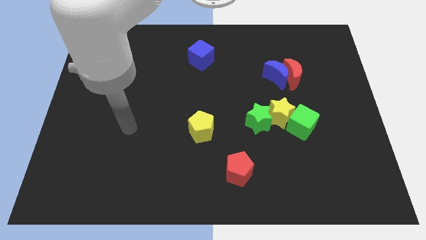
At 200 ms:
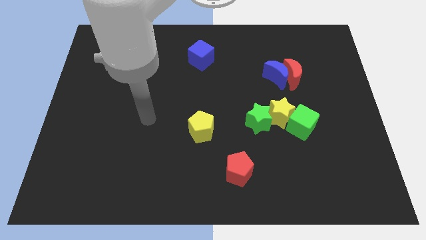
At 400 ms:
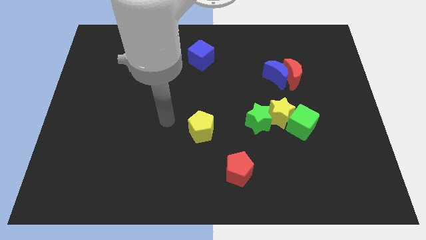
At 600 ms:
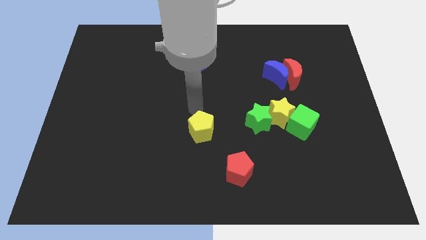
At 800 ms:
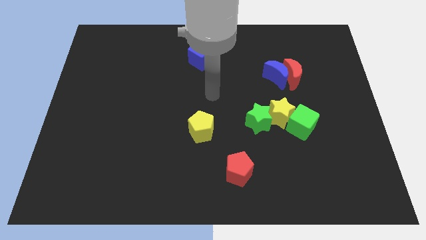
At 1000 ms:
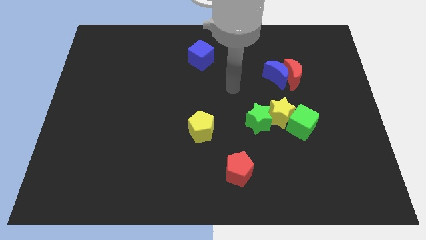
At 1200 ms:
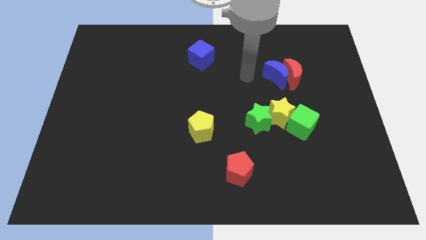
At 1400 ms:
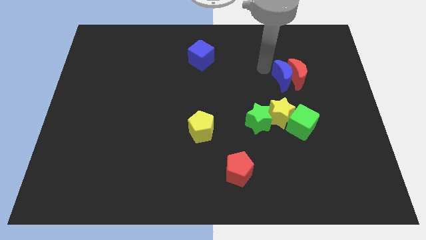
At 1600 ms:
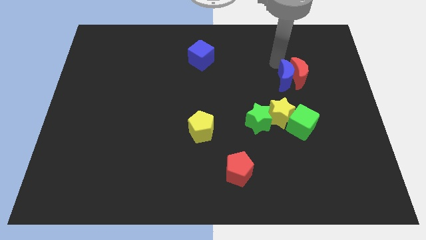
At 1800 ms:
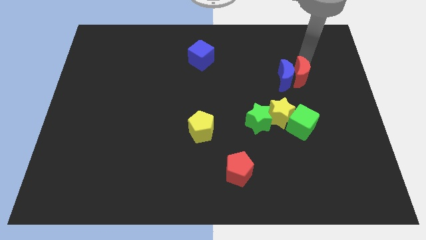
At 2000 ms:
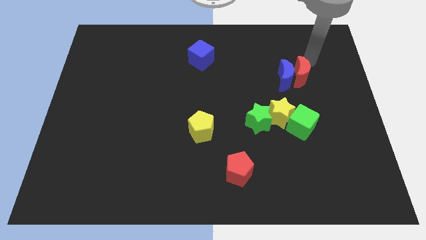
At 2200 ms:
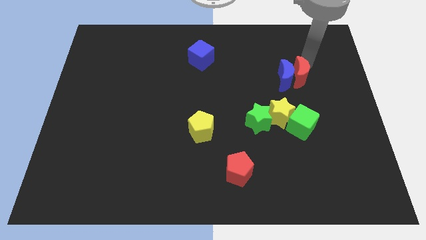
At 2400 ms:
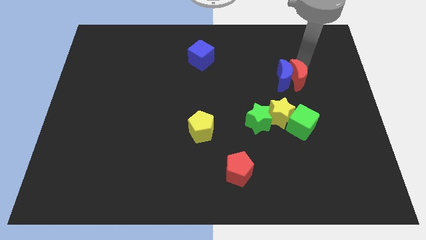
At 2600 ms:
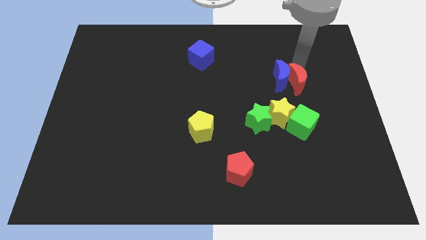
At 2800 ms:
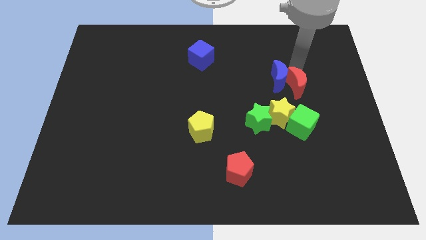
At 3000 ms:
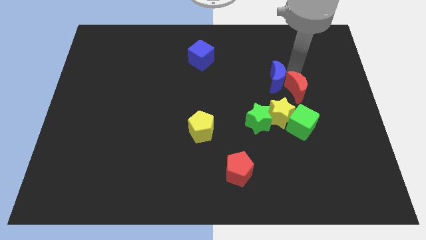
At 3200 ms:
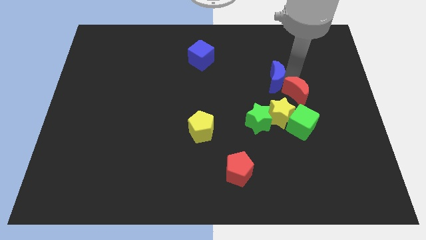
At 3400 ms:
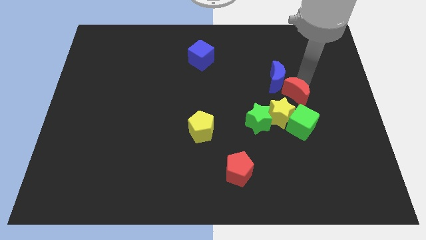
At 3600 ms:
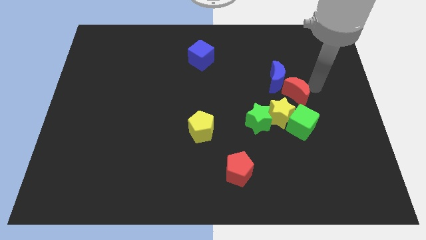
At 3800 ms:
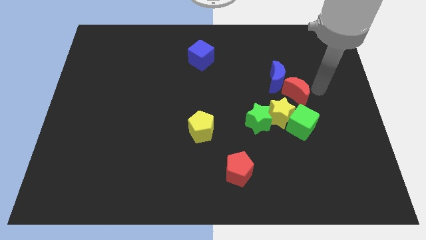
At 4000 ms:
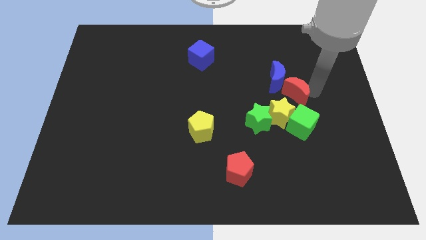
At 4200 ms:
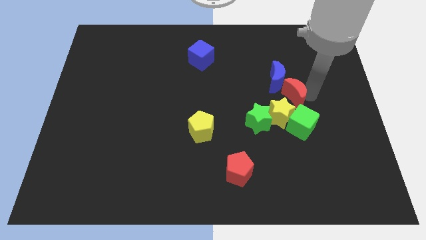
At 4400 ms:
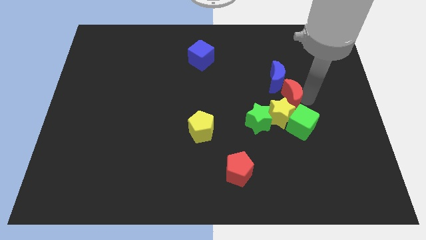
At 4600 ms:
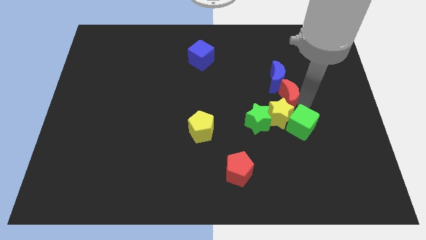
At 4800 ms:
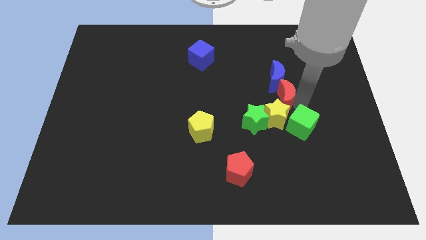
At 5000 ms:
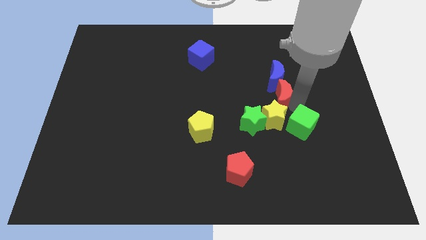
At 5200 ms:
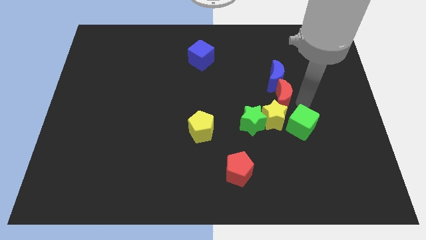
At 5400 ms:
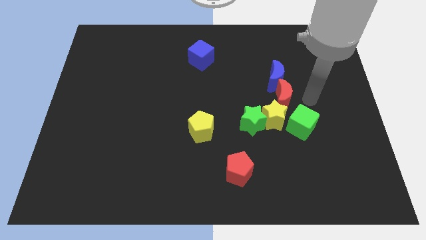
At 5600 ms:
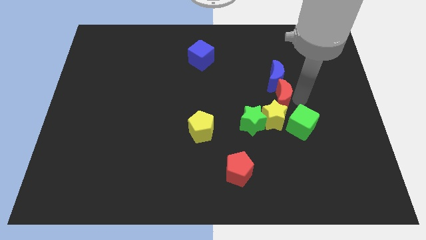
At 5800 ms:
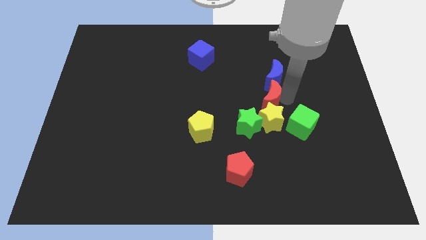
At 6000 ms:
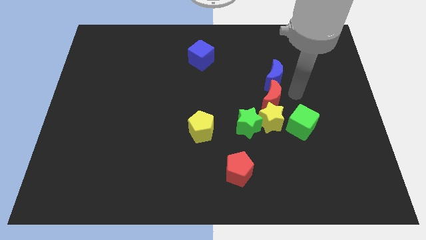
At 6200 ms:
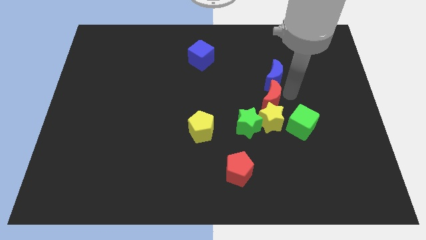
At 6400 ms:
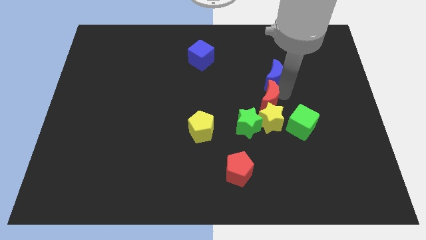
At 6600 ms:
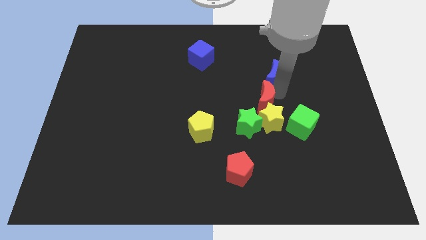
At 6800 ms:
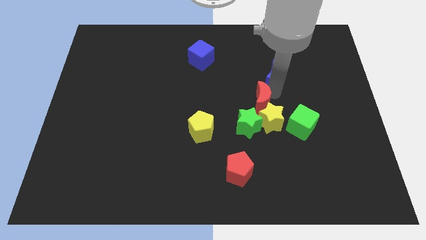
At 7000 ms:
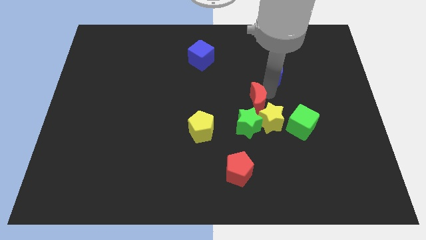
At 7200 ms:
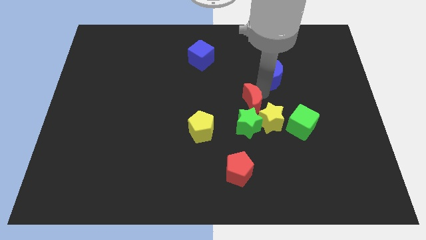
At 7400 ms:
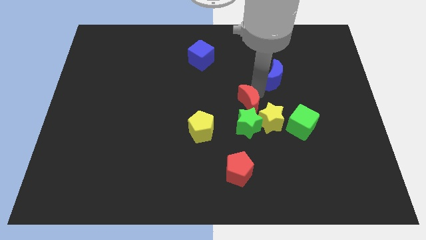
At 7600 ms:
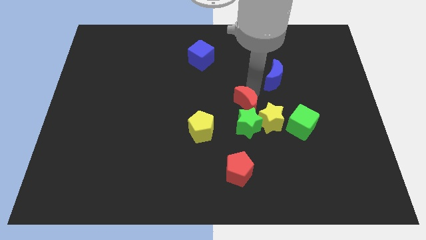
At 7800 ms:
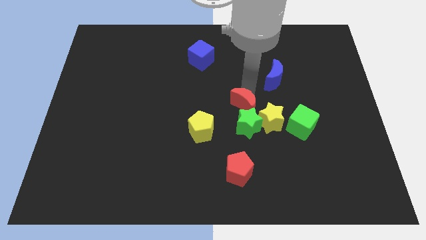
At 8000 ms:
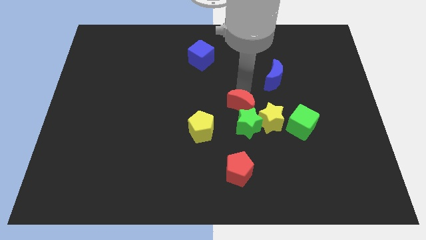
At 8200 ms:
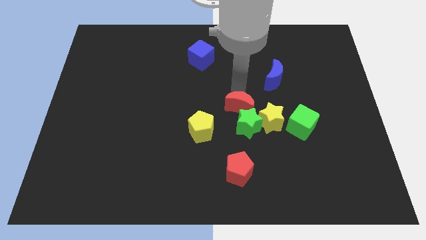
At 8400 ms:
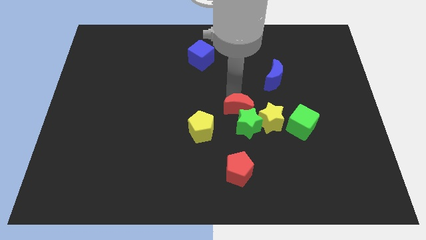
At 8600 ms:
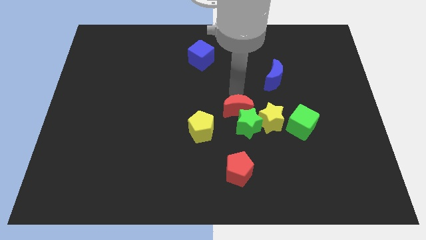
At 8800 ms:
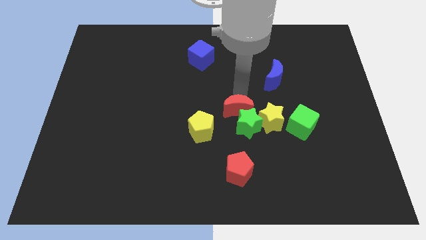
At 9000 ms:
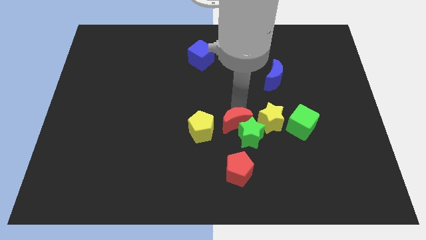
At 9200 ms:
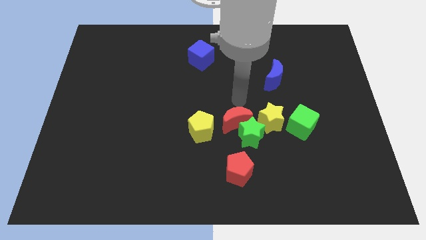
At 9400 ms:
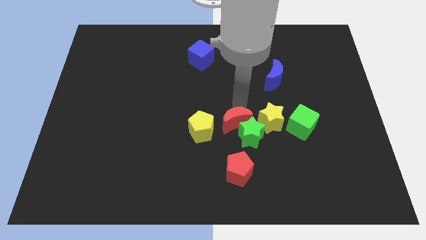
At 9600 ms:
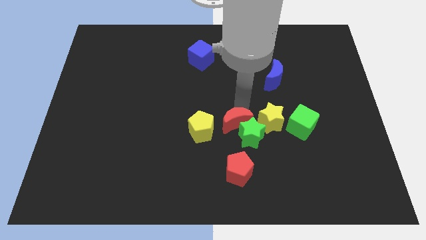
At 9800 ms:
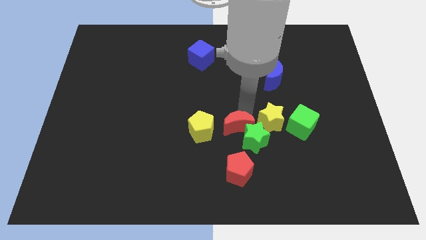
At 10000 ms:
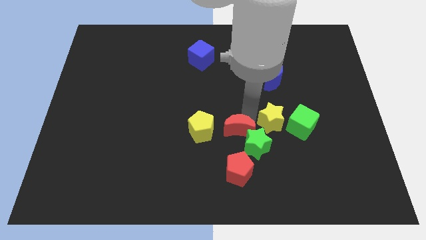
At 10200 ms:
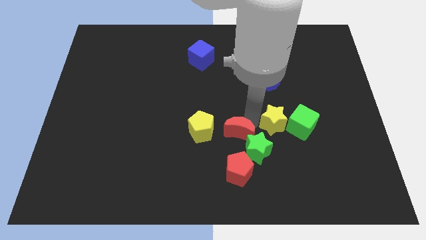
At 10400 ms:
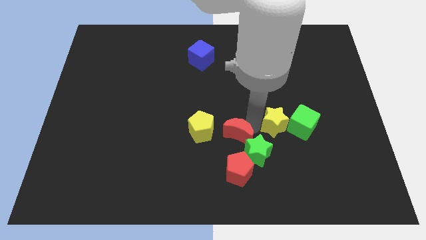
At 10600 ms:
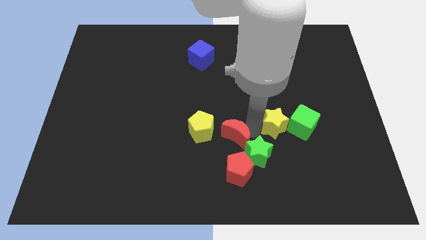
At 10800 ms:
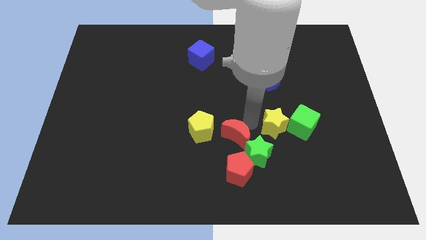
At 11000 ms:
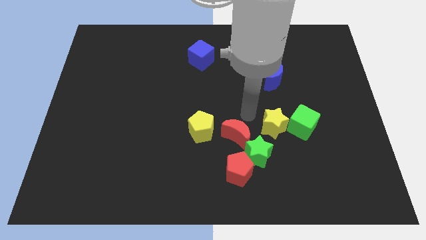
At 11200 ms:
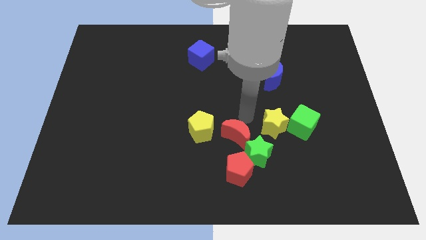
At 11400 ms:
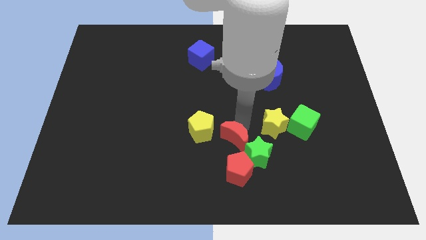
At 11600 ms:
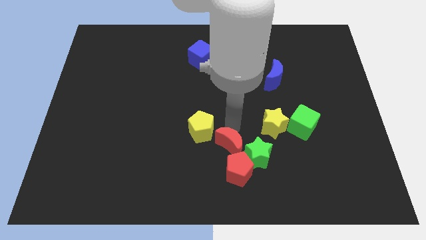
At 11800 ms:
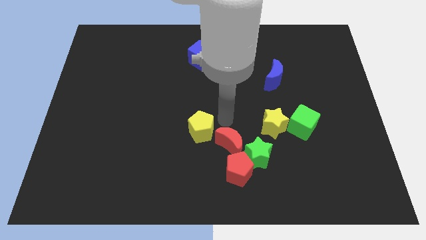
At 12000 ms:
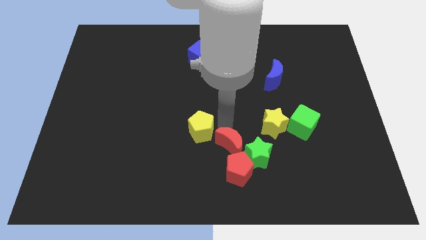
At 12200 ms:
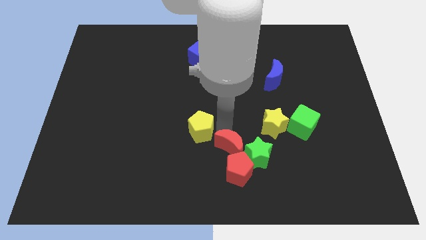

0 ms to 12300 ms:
put the red moon to the red pentagon

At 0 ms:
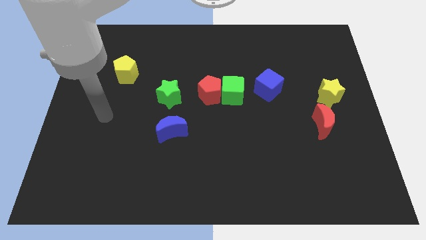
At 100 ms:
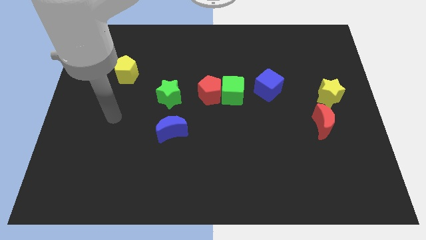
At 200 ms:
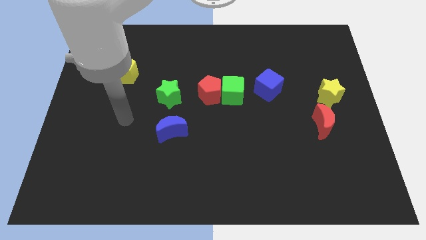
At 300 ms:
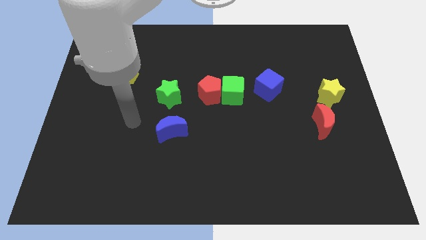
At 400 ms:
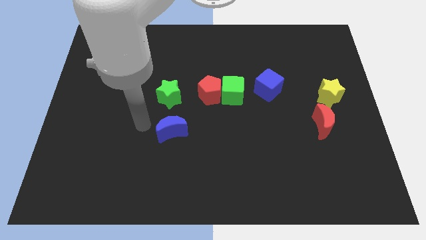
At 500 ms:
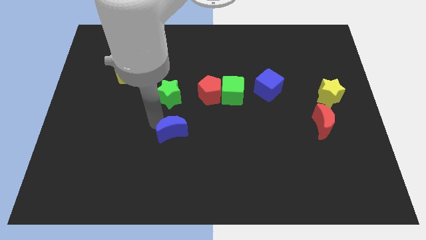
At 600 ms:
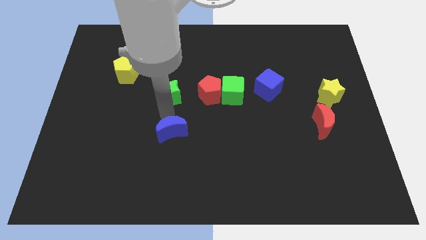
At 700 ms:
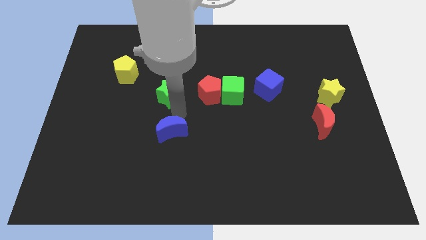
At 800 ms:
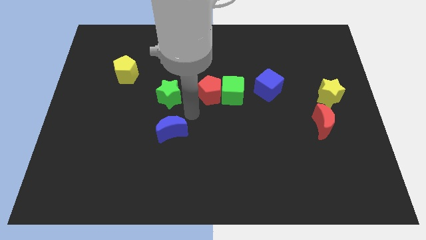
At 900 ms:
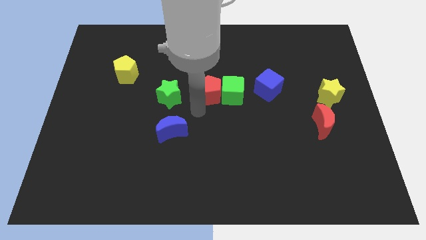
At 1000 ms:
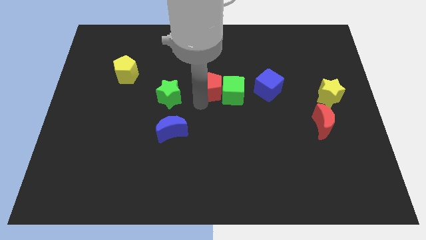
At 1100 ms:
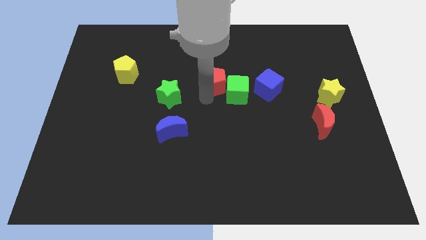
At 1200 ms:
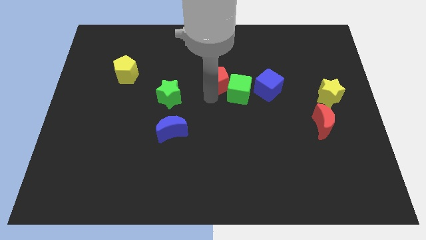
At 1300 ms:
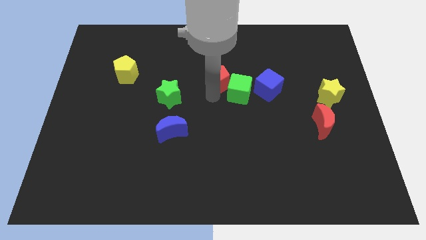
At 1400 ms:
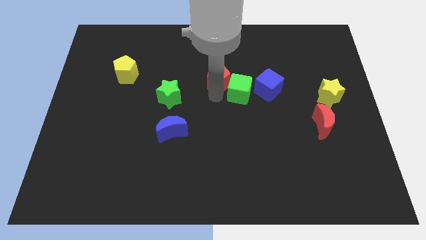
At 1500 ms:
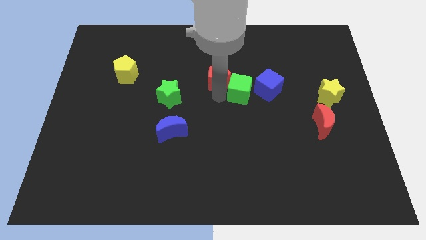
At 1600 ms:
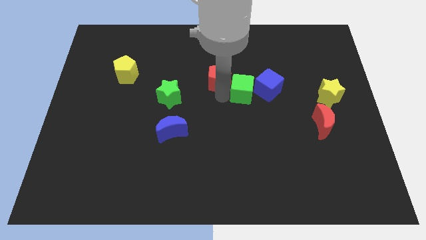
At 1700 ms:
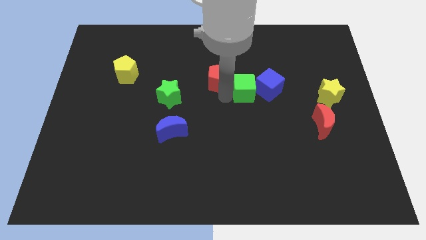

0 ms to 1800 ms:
slide the green cube close to the blue cube
